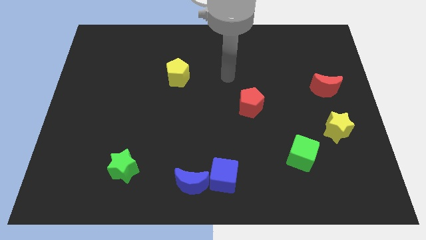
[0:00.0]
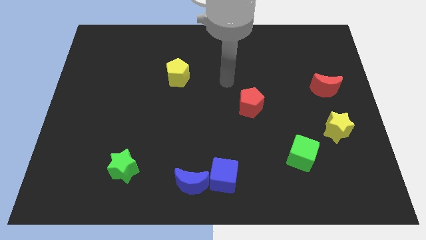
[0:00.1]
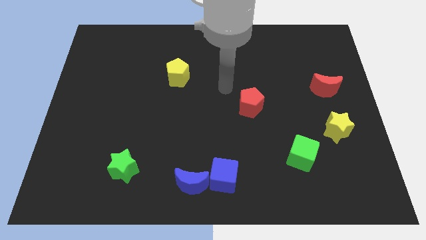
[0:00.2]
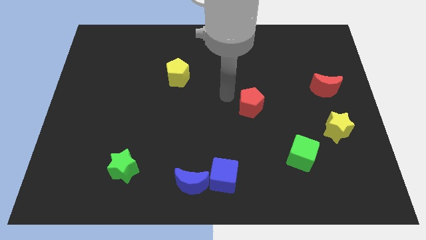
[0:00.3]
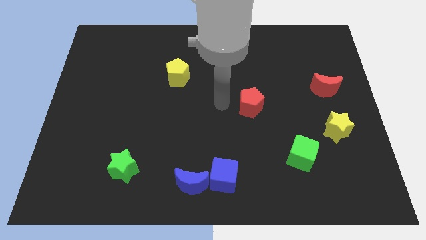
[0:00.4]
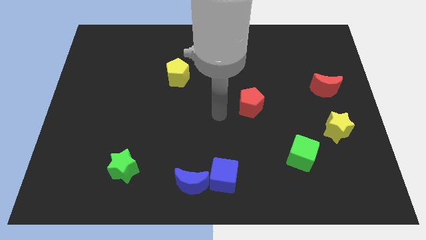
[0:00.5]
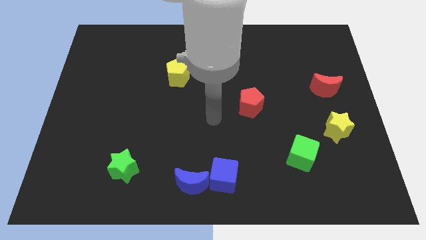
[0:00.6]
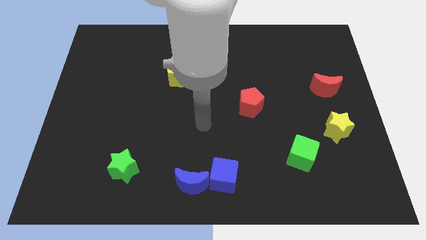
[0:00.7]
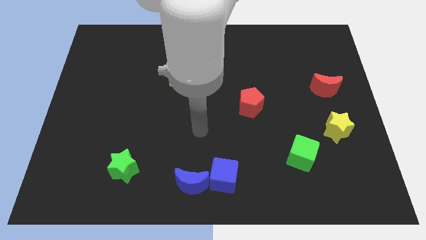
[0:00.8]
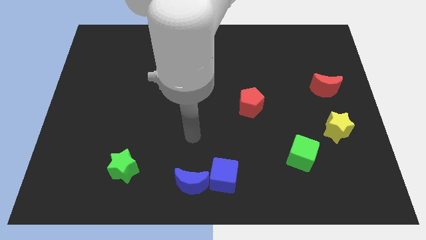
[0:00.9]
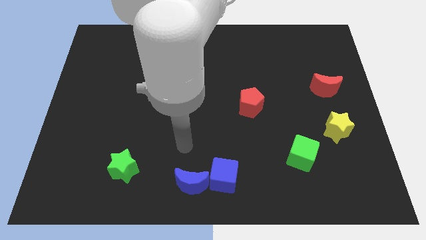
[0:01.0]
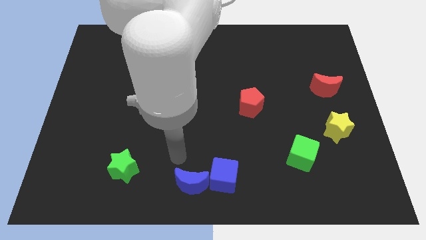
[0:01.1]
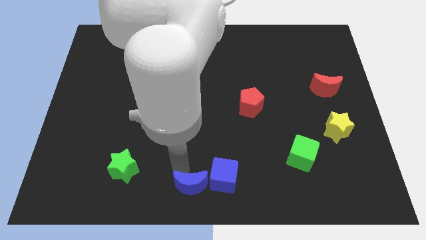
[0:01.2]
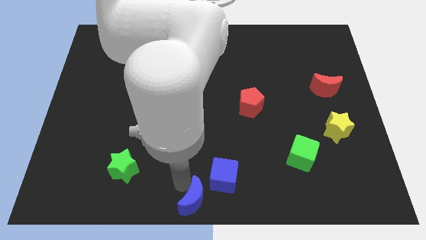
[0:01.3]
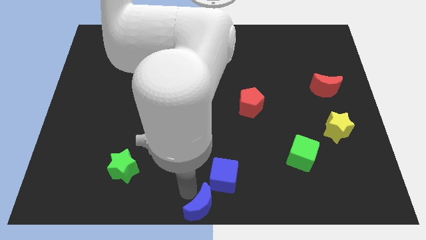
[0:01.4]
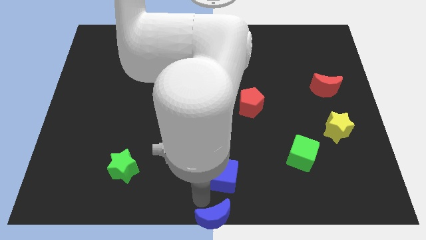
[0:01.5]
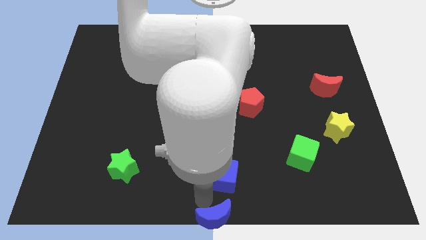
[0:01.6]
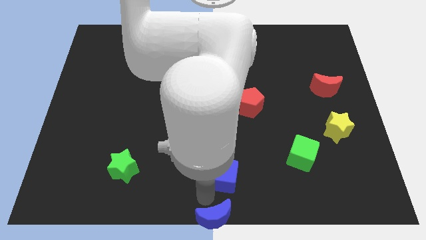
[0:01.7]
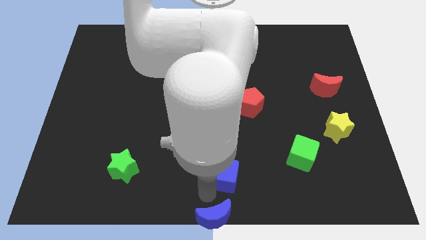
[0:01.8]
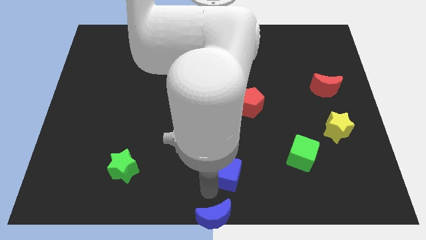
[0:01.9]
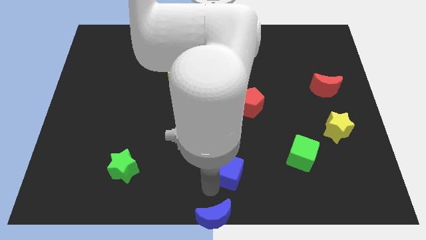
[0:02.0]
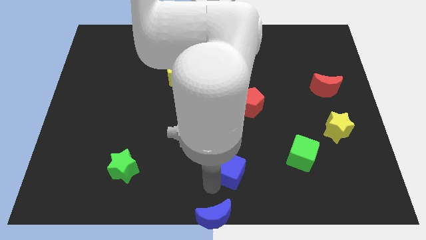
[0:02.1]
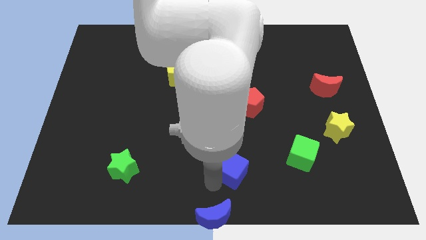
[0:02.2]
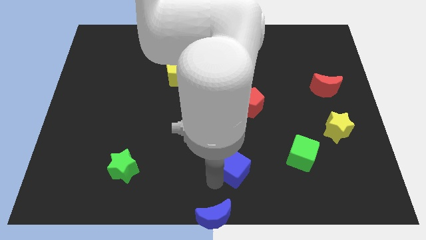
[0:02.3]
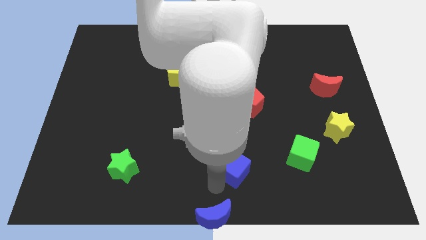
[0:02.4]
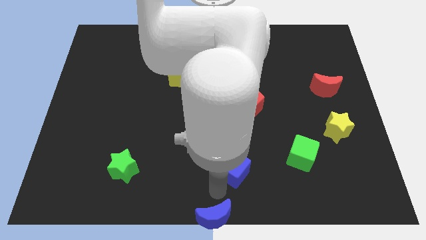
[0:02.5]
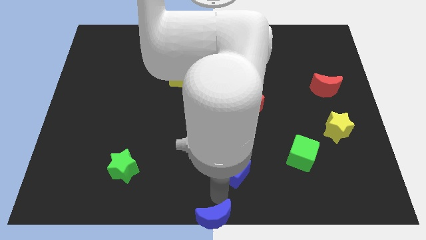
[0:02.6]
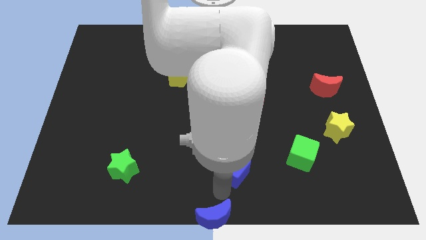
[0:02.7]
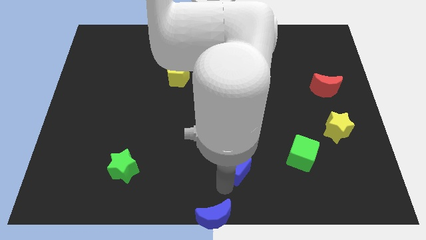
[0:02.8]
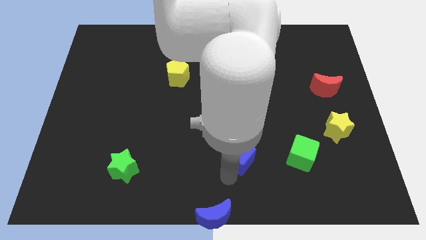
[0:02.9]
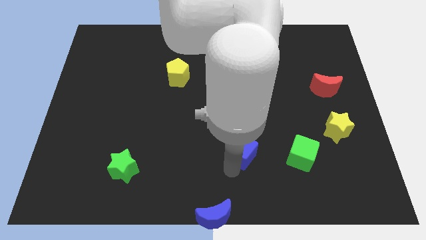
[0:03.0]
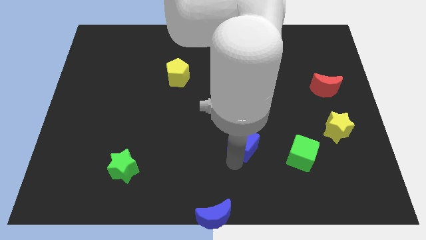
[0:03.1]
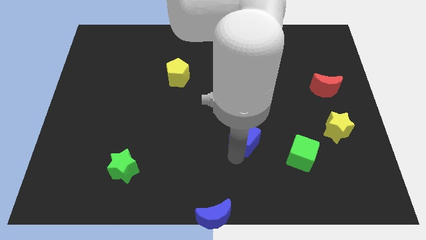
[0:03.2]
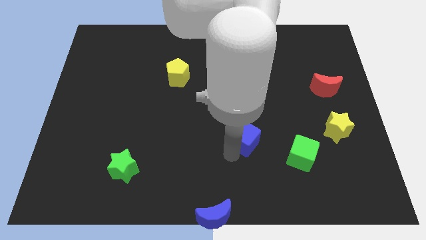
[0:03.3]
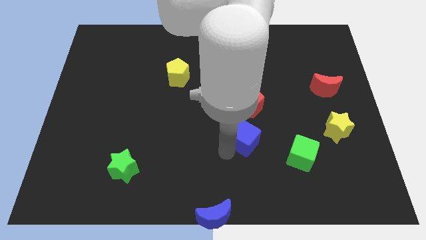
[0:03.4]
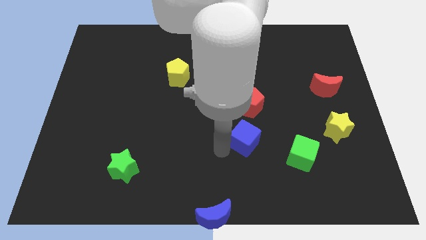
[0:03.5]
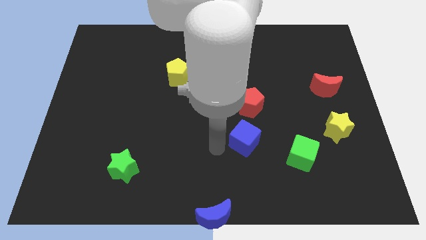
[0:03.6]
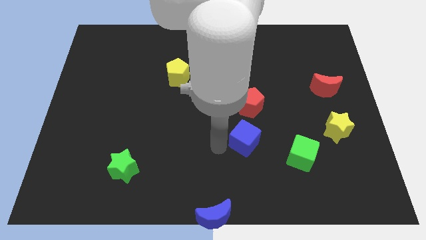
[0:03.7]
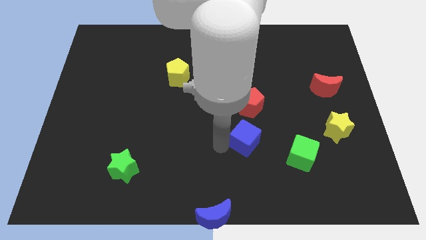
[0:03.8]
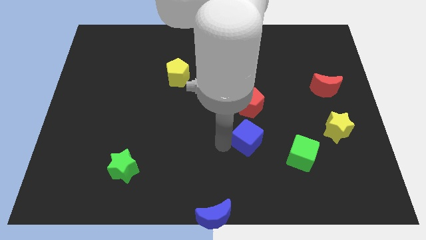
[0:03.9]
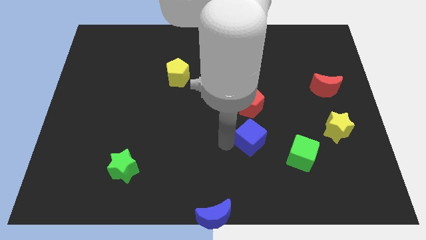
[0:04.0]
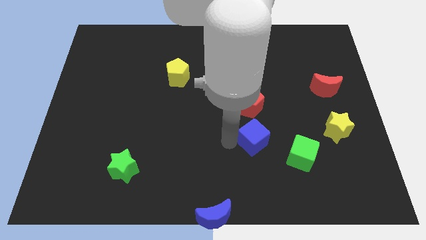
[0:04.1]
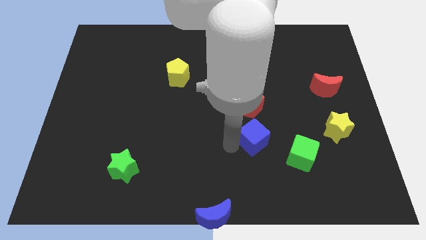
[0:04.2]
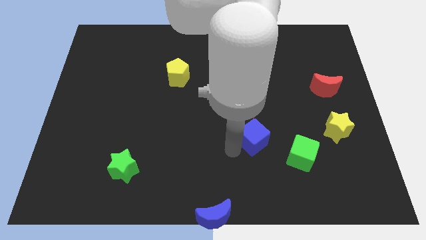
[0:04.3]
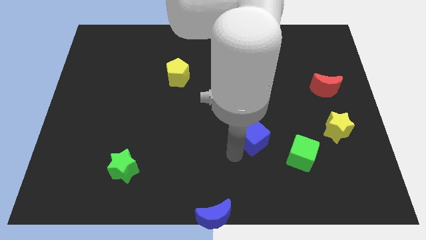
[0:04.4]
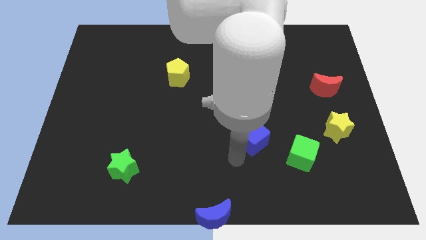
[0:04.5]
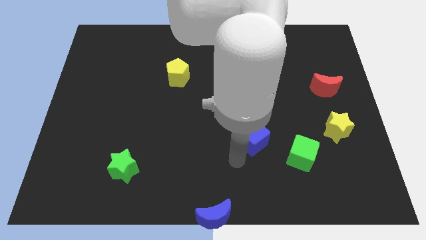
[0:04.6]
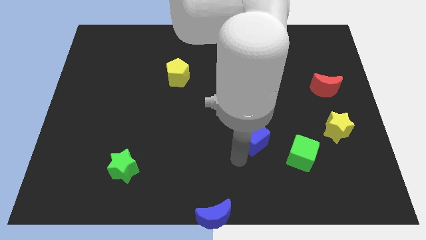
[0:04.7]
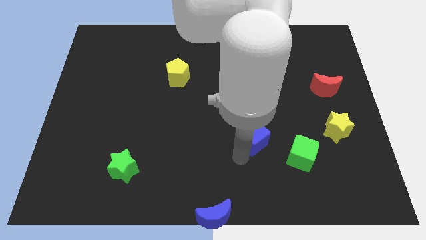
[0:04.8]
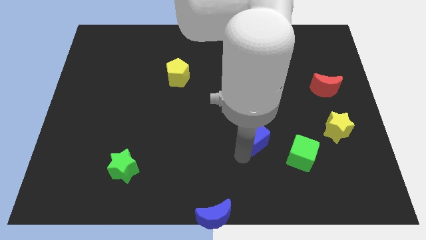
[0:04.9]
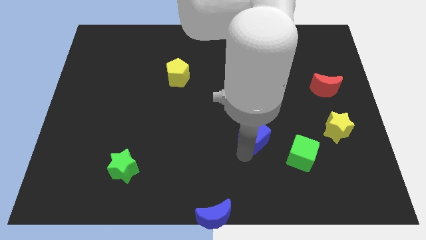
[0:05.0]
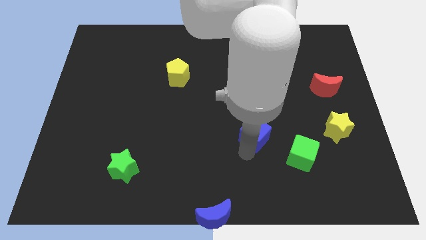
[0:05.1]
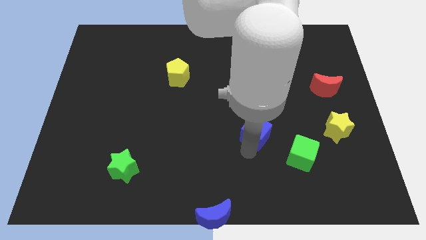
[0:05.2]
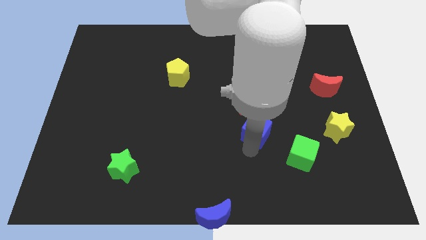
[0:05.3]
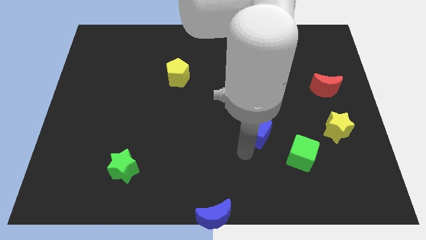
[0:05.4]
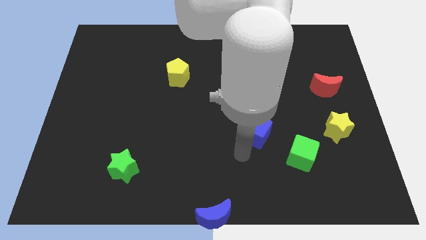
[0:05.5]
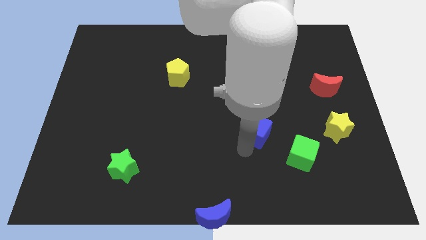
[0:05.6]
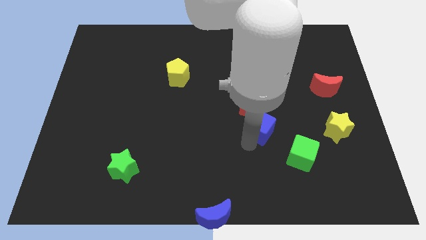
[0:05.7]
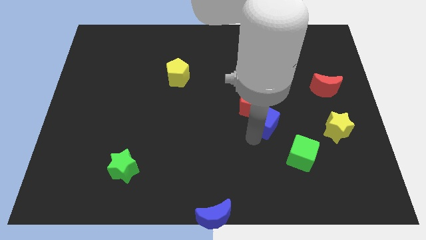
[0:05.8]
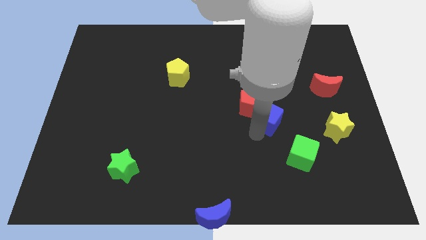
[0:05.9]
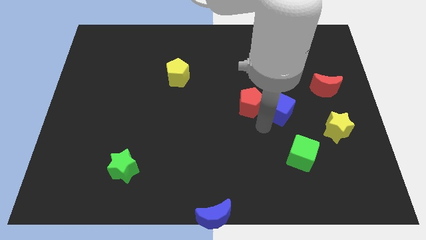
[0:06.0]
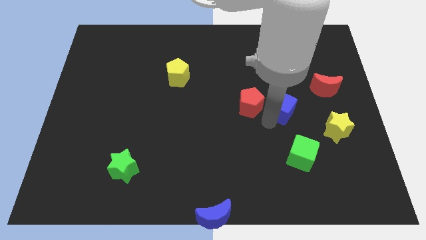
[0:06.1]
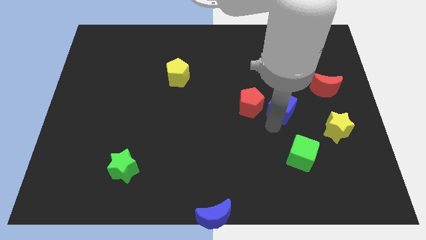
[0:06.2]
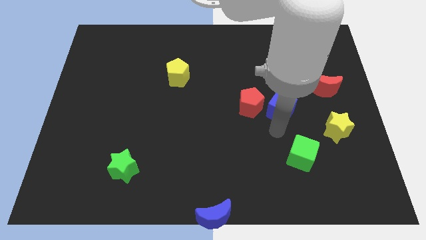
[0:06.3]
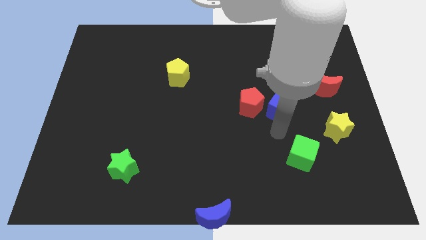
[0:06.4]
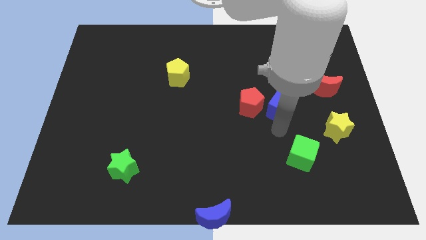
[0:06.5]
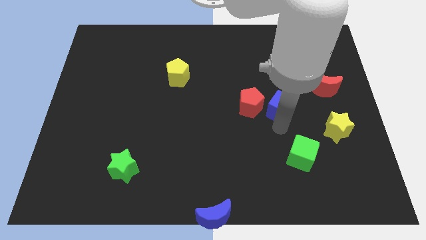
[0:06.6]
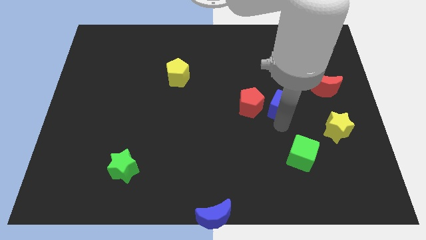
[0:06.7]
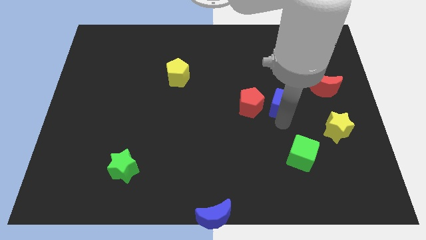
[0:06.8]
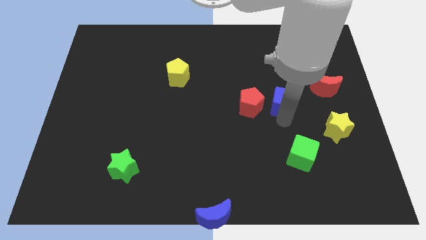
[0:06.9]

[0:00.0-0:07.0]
push the blue cube to the left side of the red moon
